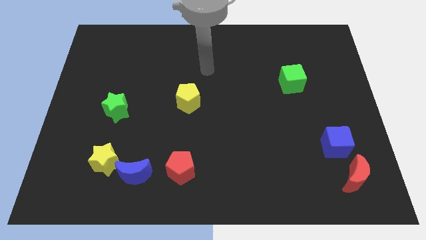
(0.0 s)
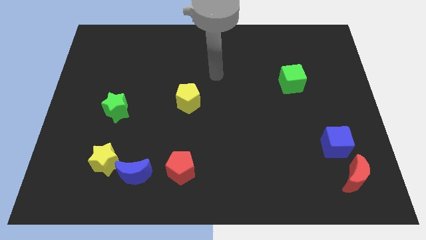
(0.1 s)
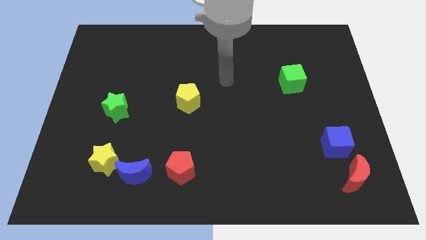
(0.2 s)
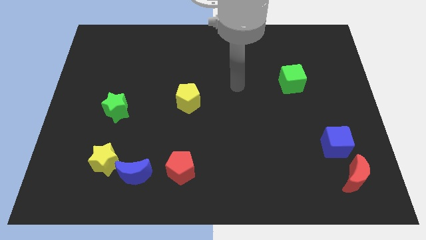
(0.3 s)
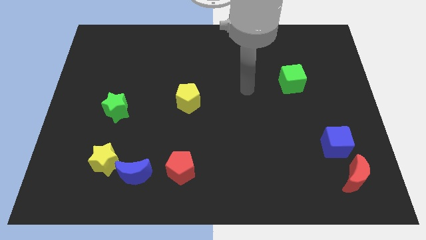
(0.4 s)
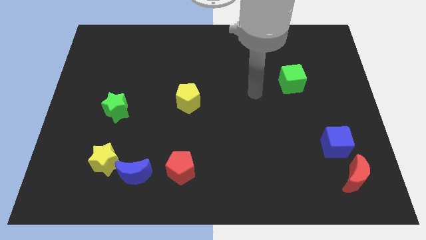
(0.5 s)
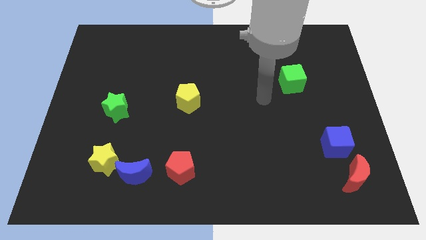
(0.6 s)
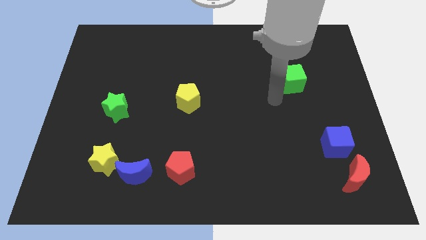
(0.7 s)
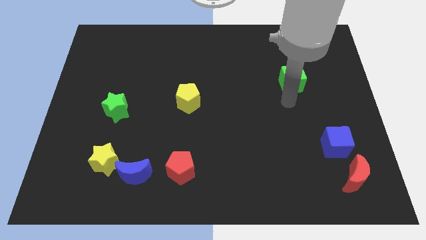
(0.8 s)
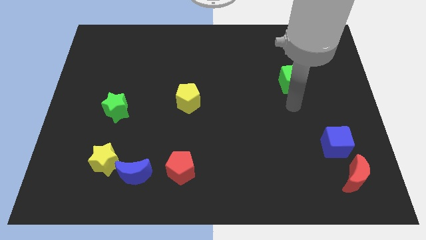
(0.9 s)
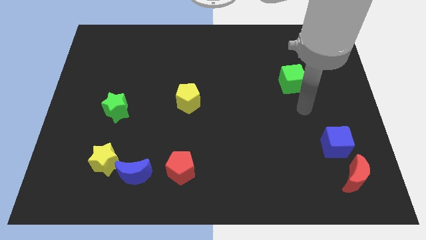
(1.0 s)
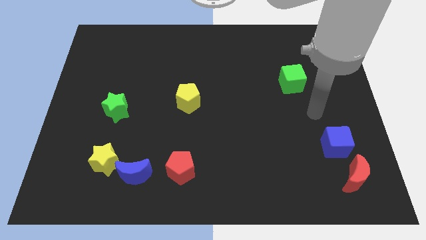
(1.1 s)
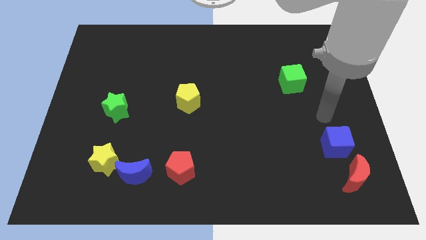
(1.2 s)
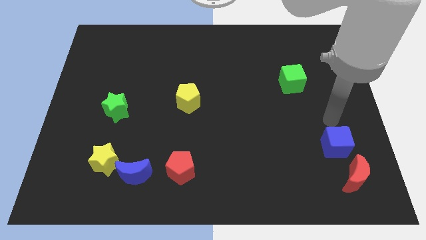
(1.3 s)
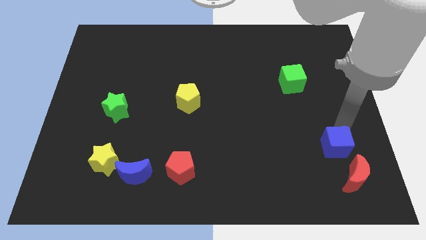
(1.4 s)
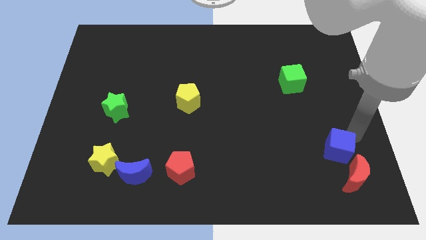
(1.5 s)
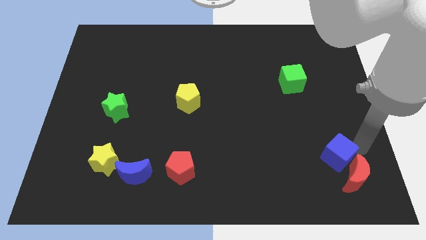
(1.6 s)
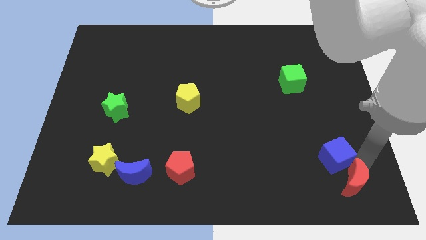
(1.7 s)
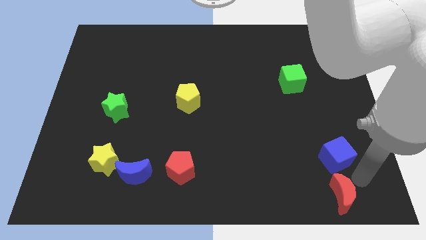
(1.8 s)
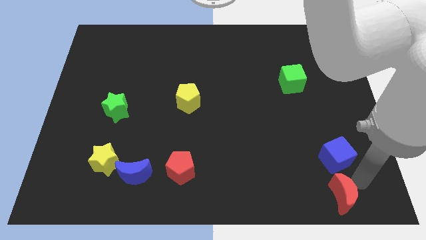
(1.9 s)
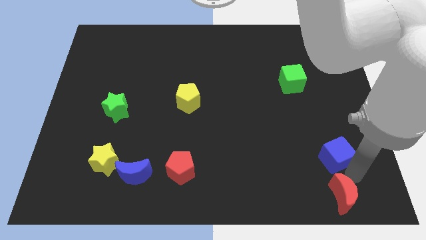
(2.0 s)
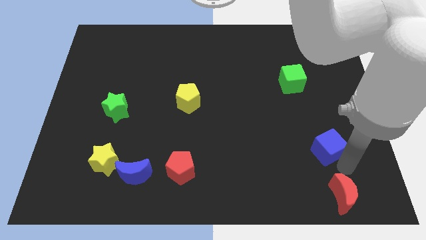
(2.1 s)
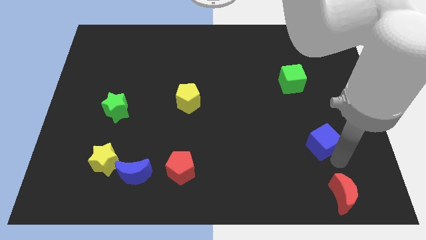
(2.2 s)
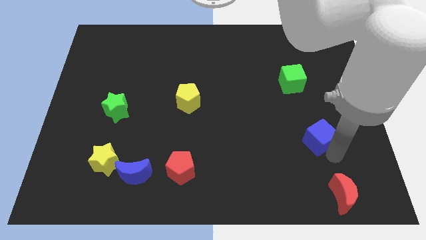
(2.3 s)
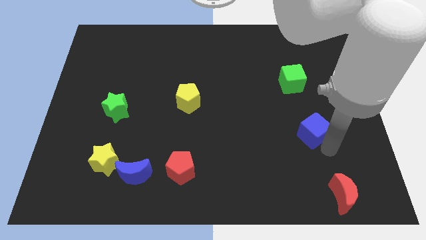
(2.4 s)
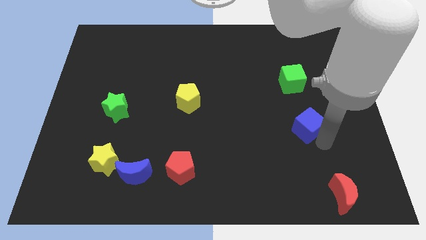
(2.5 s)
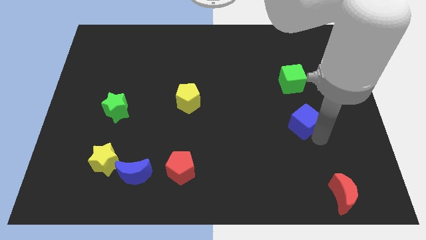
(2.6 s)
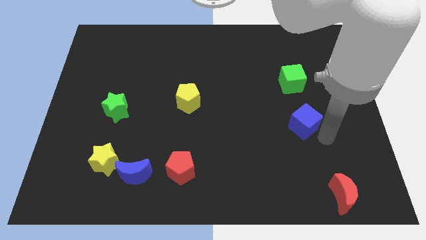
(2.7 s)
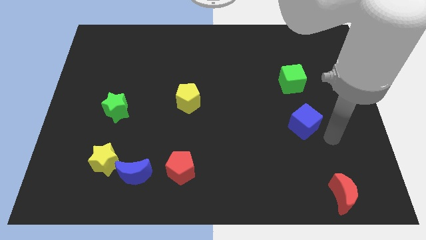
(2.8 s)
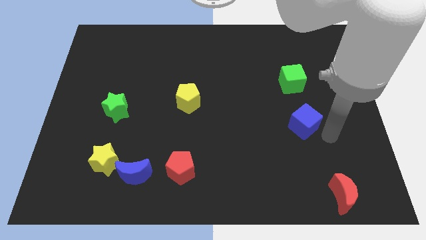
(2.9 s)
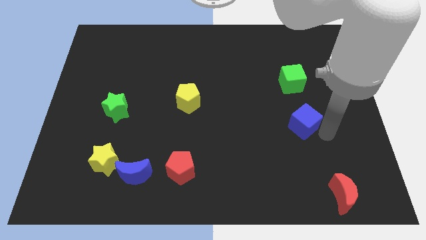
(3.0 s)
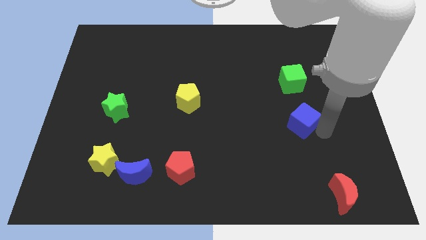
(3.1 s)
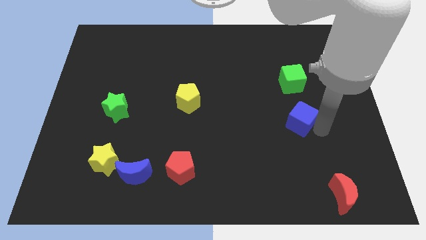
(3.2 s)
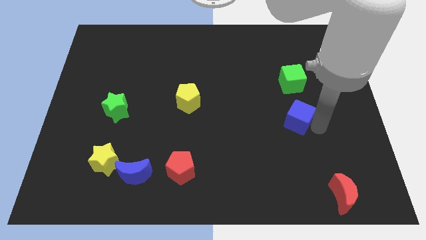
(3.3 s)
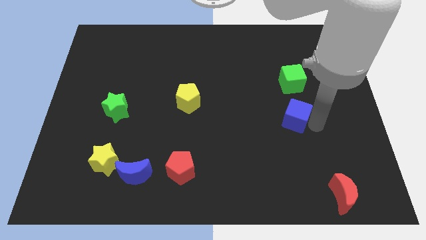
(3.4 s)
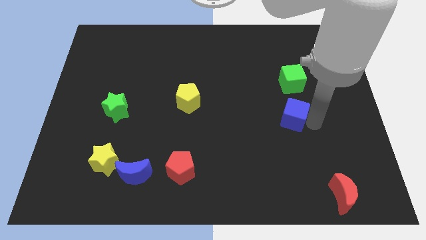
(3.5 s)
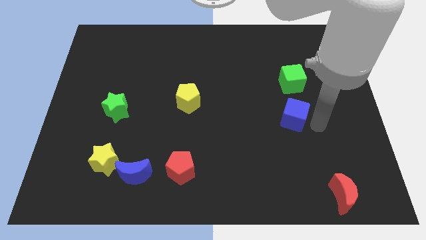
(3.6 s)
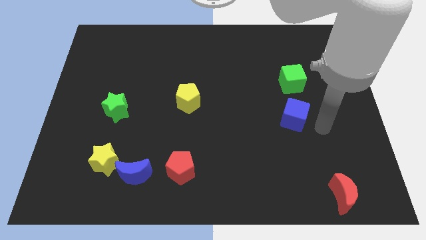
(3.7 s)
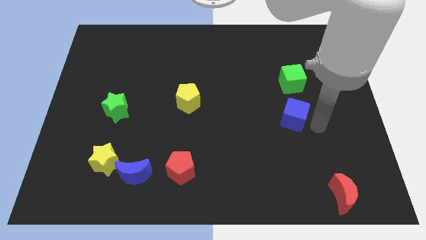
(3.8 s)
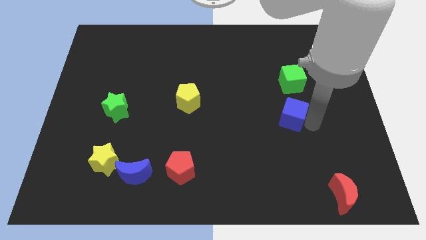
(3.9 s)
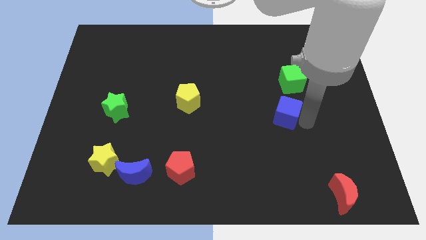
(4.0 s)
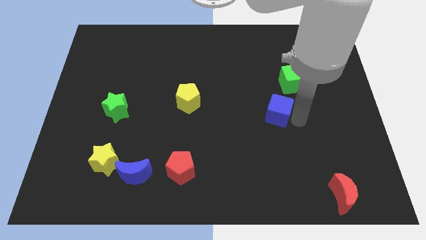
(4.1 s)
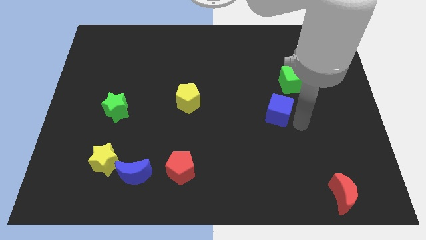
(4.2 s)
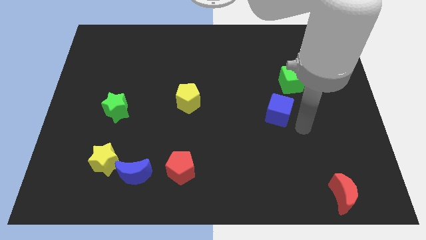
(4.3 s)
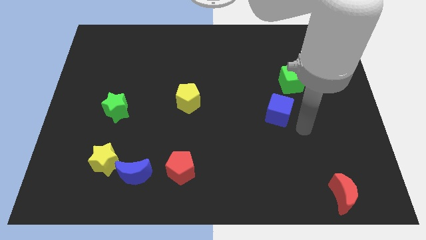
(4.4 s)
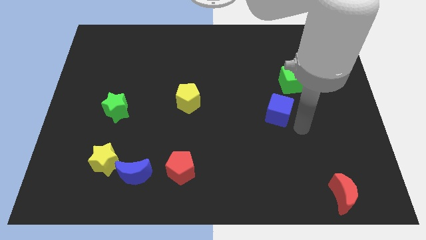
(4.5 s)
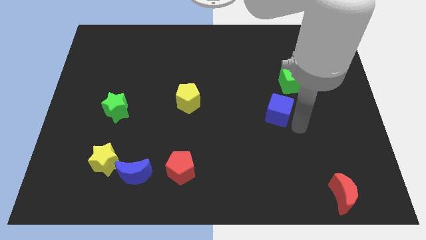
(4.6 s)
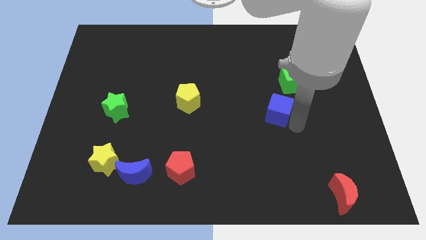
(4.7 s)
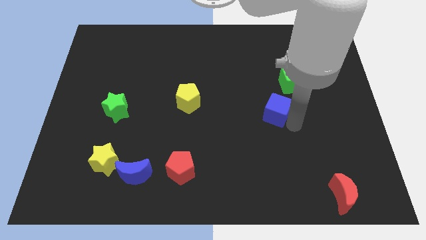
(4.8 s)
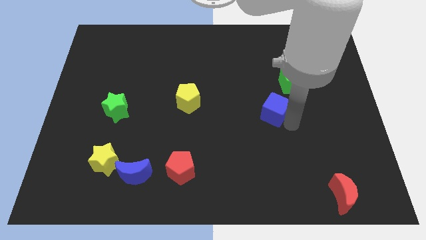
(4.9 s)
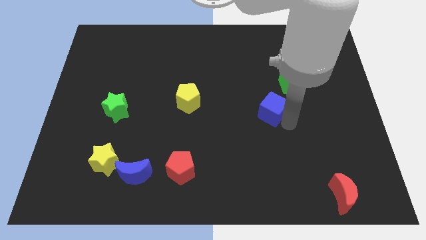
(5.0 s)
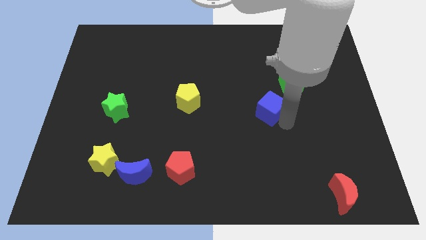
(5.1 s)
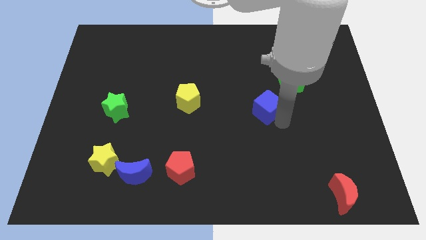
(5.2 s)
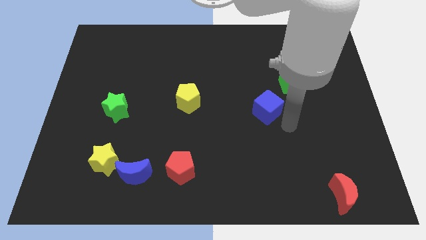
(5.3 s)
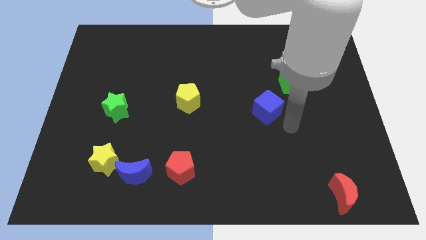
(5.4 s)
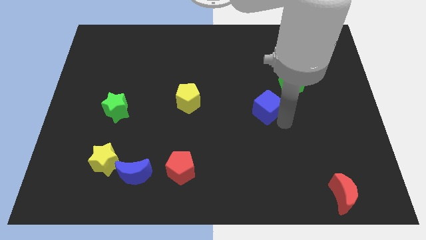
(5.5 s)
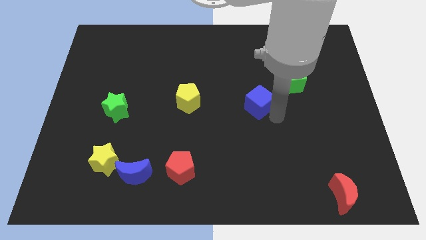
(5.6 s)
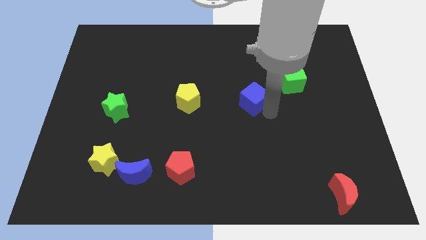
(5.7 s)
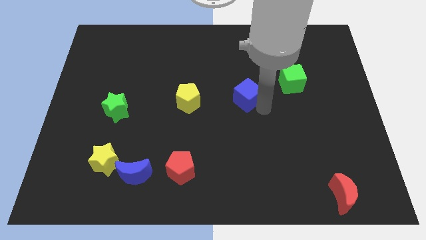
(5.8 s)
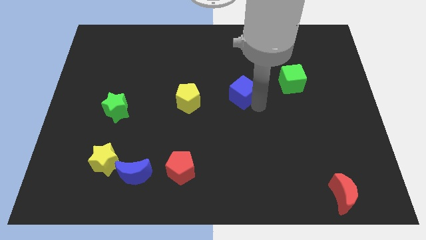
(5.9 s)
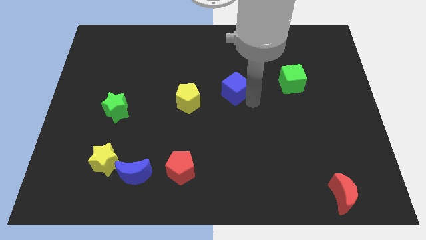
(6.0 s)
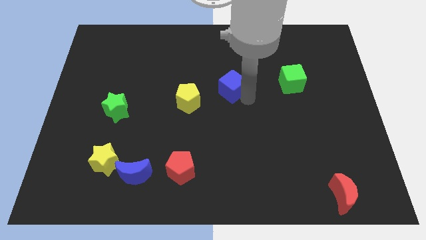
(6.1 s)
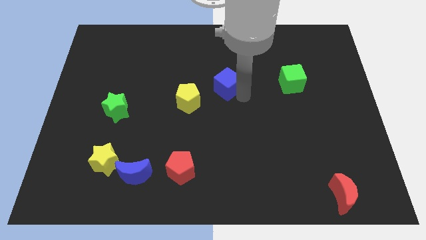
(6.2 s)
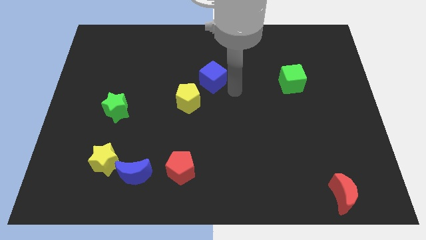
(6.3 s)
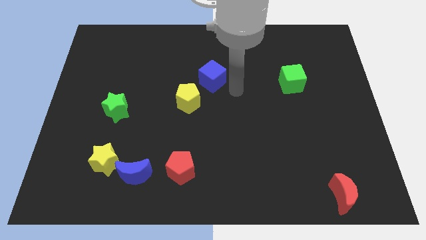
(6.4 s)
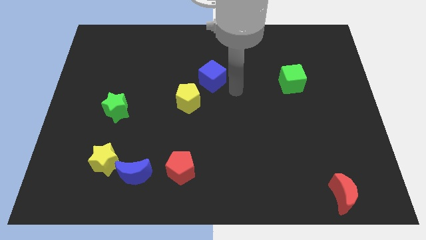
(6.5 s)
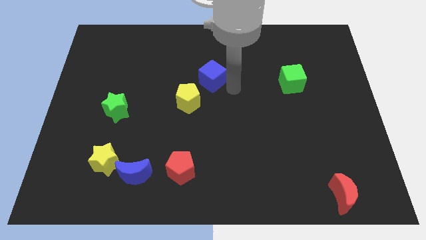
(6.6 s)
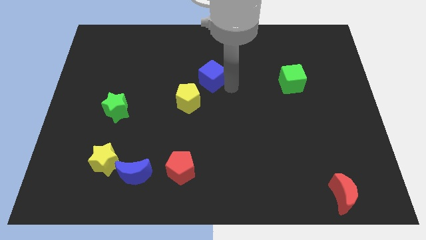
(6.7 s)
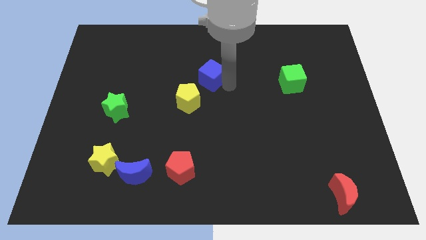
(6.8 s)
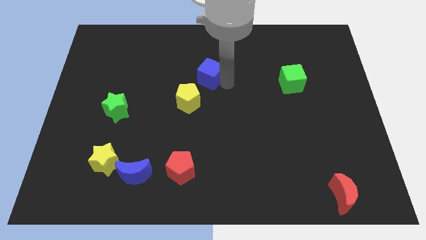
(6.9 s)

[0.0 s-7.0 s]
move the blue cube above the yellow pentagon

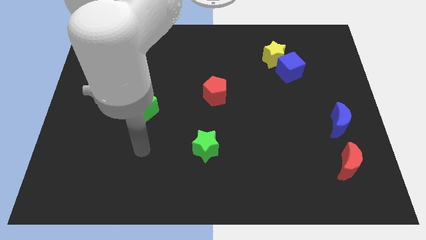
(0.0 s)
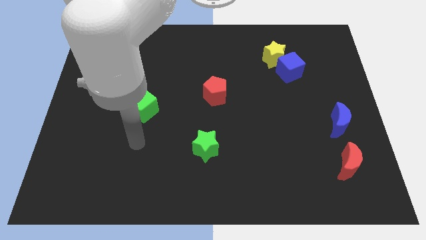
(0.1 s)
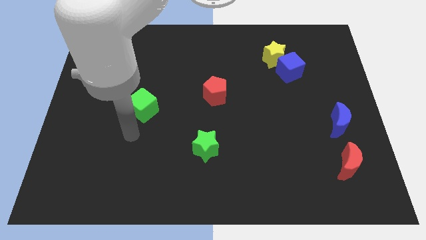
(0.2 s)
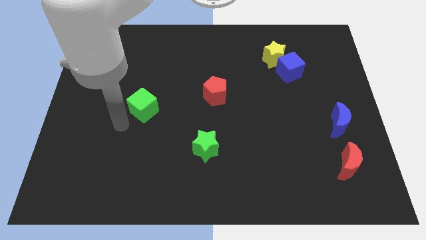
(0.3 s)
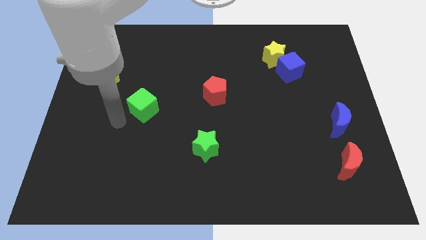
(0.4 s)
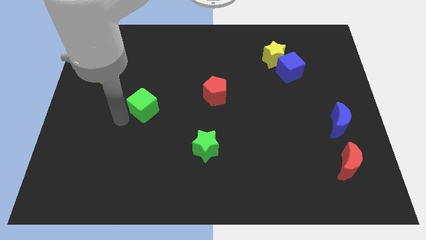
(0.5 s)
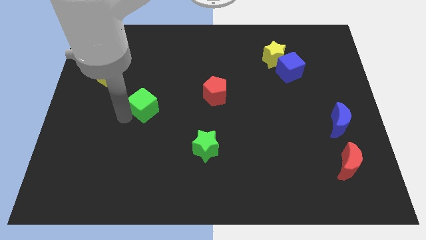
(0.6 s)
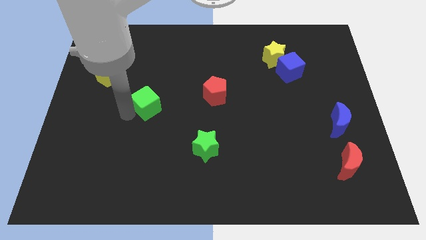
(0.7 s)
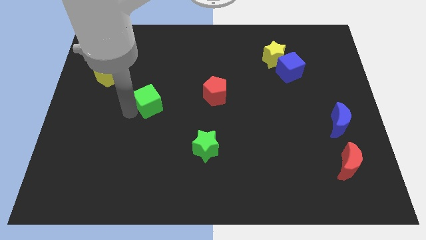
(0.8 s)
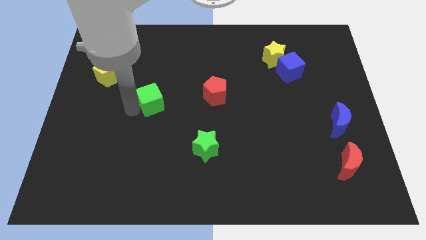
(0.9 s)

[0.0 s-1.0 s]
move the green cube to the left side of the red pentagon
